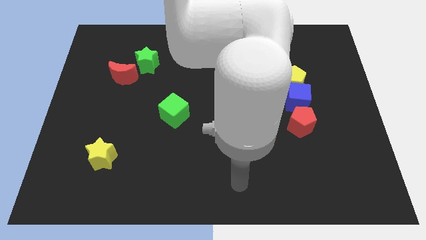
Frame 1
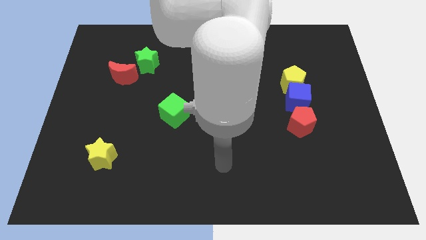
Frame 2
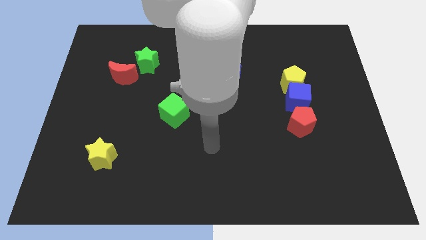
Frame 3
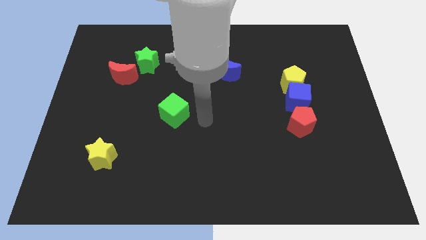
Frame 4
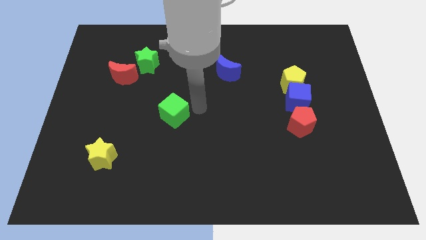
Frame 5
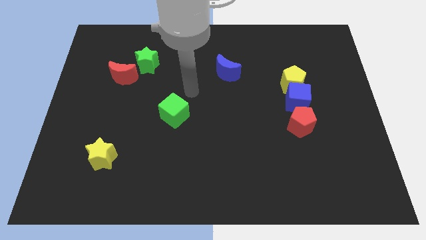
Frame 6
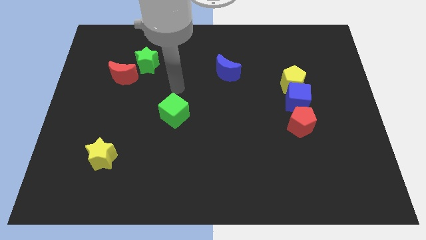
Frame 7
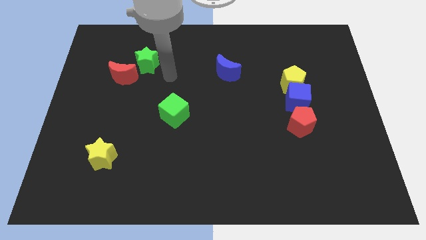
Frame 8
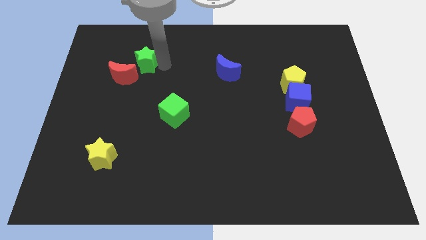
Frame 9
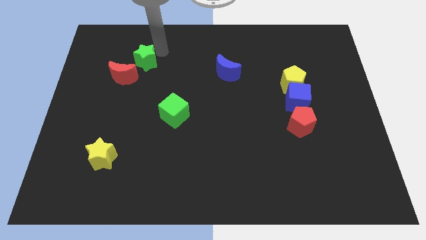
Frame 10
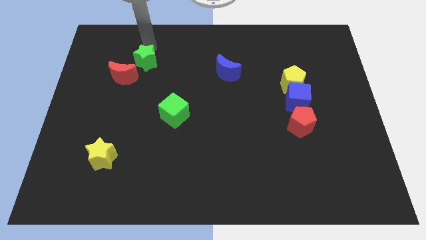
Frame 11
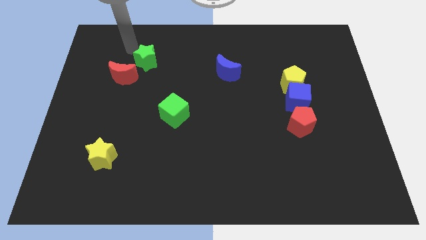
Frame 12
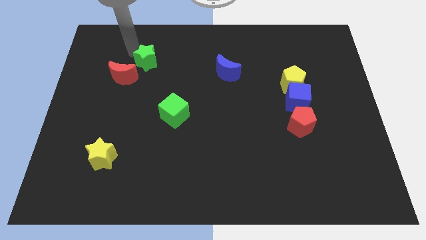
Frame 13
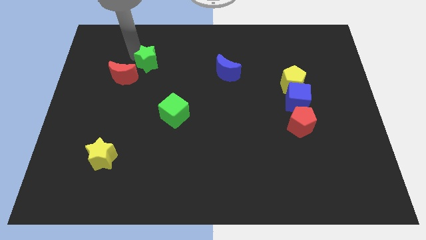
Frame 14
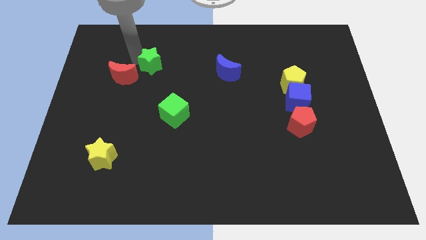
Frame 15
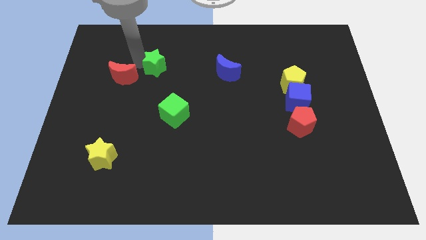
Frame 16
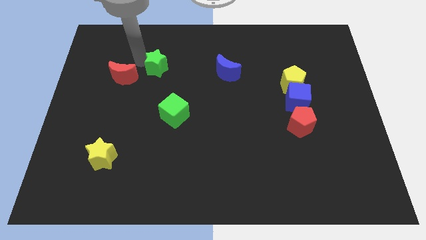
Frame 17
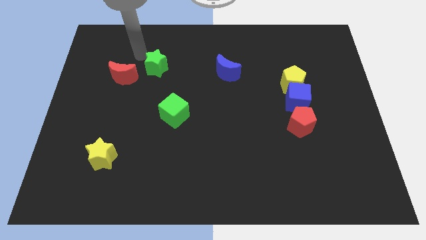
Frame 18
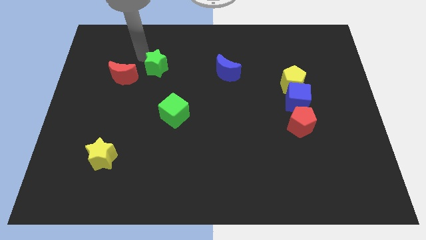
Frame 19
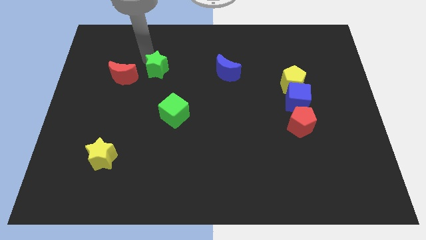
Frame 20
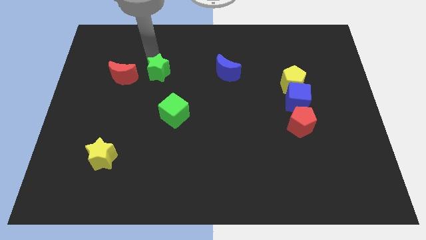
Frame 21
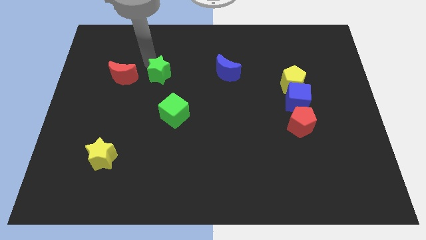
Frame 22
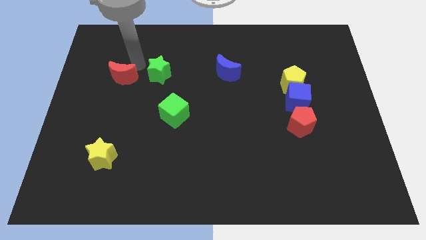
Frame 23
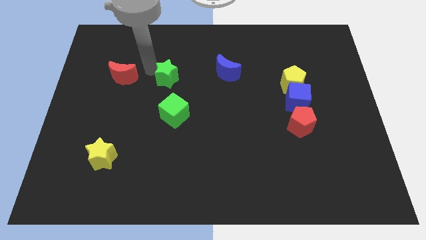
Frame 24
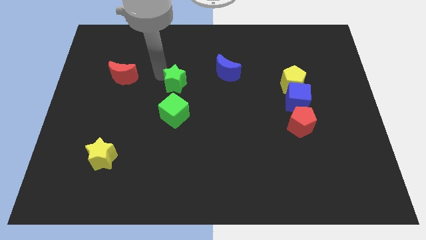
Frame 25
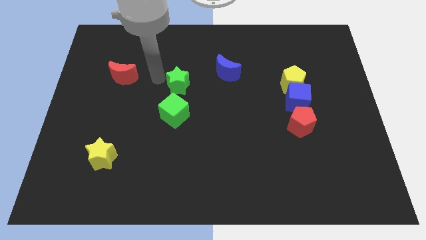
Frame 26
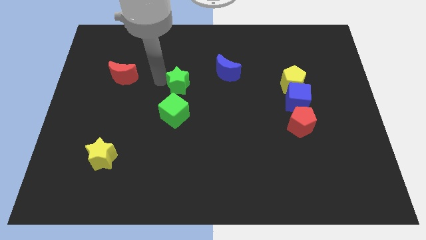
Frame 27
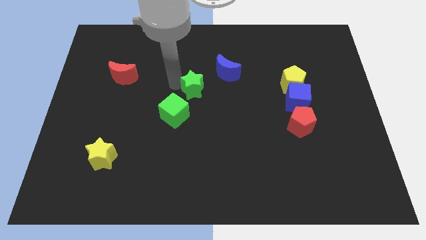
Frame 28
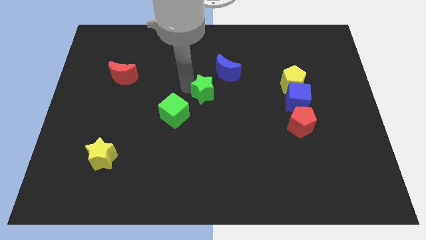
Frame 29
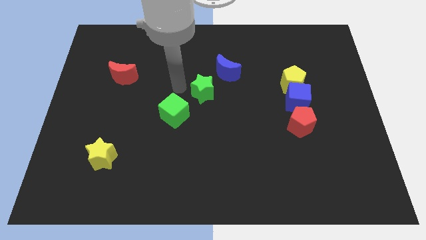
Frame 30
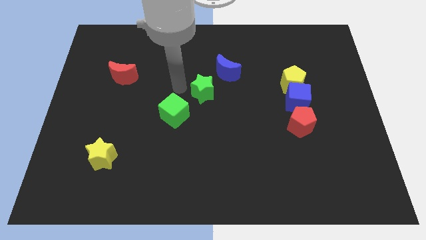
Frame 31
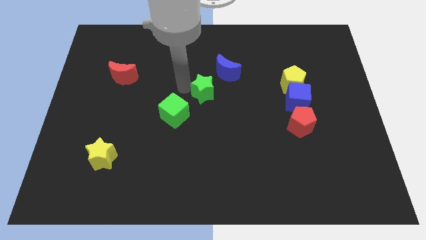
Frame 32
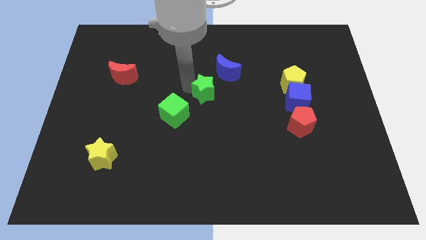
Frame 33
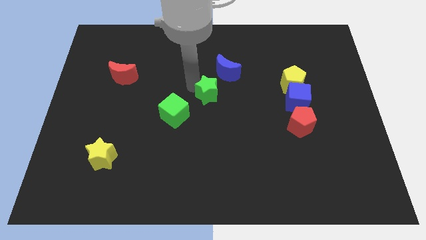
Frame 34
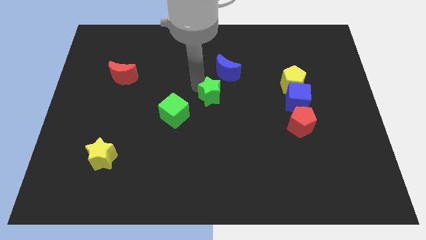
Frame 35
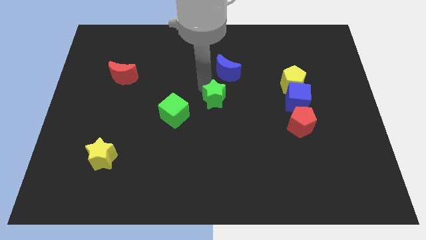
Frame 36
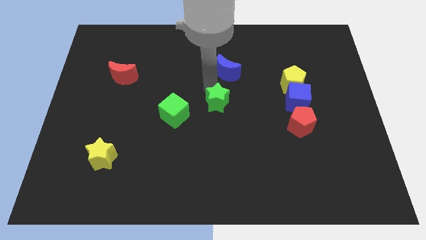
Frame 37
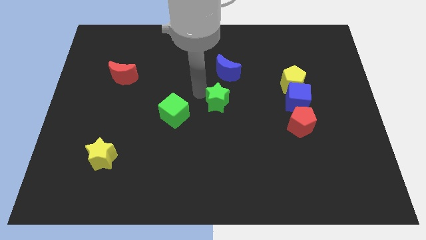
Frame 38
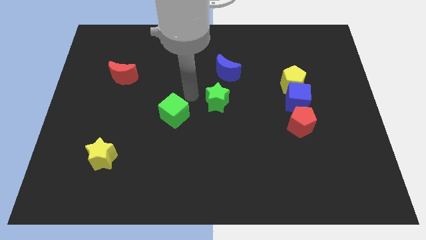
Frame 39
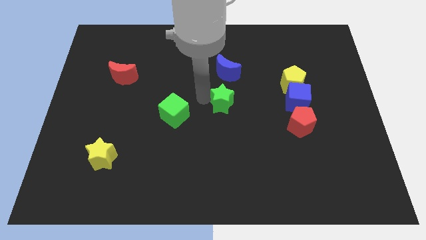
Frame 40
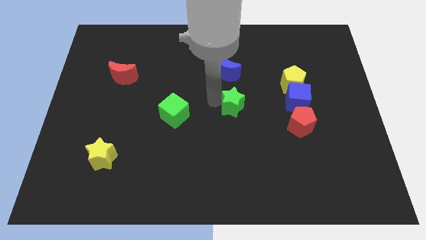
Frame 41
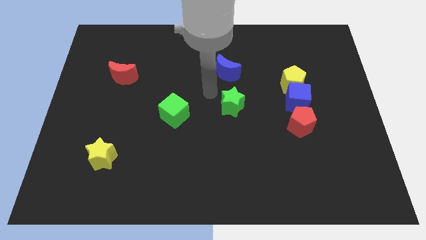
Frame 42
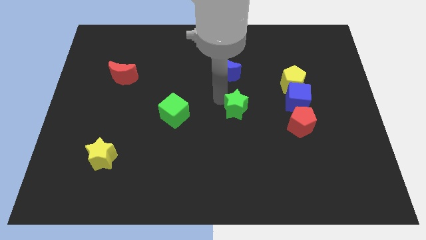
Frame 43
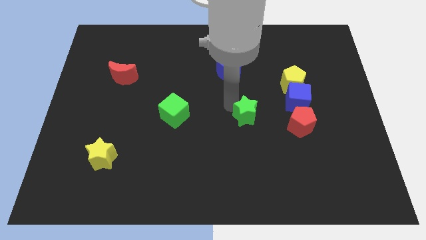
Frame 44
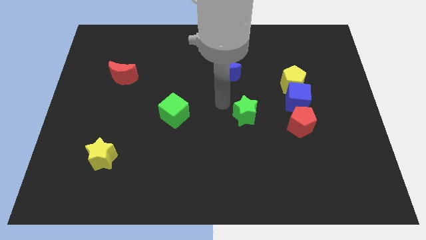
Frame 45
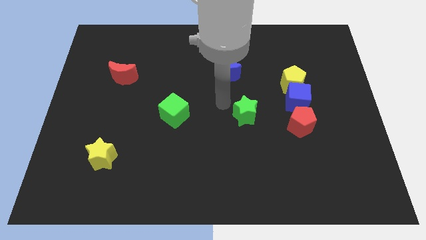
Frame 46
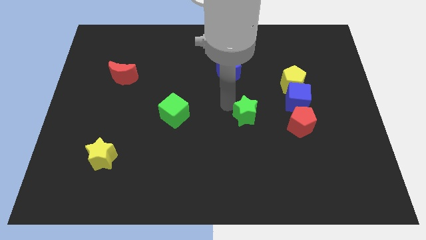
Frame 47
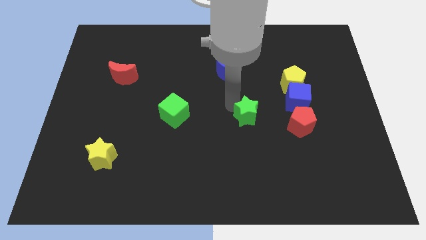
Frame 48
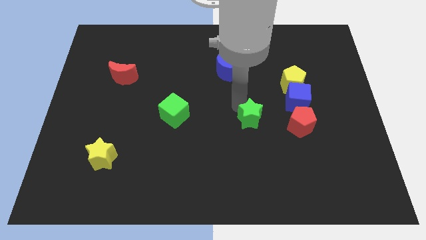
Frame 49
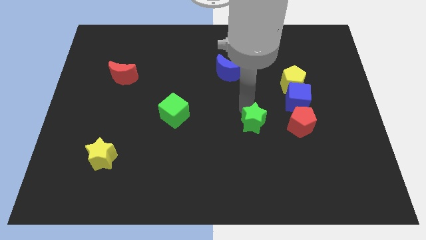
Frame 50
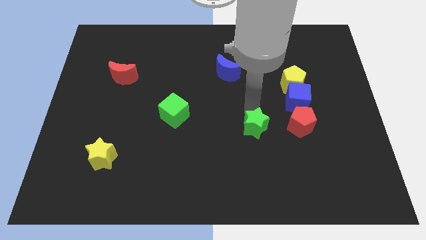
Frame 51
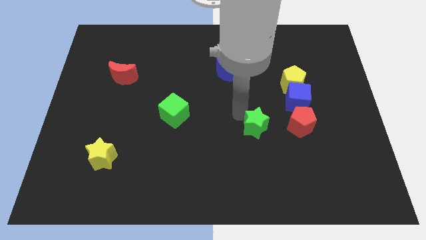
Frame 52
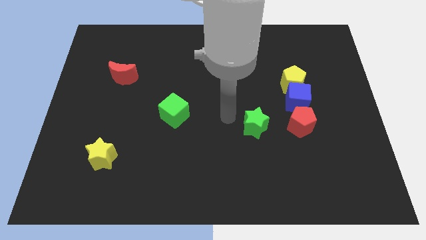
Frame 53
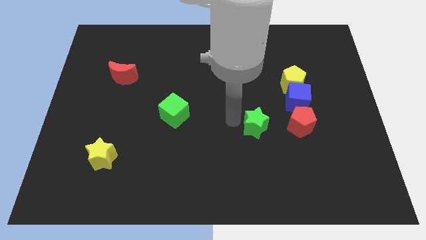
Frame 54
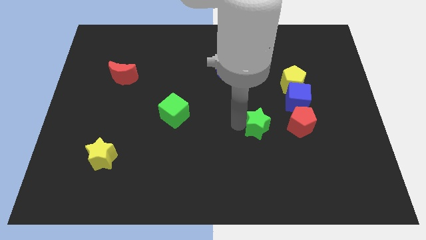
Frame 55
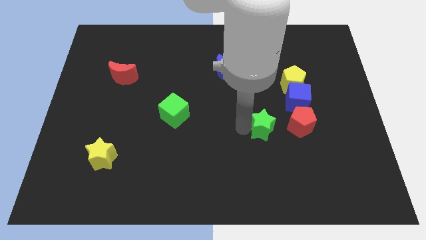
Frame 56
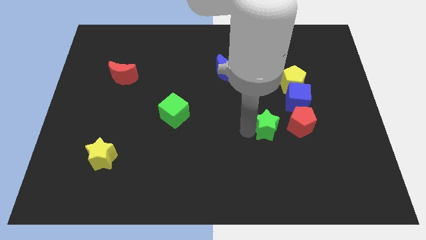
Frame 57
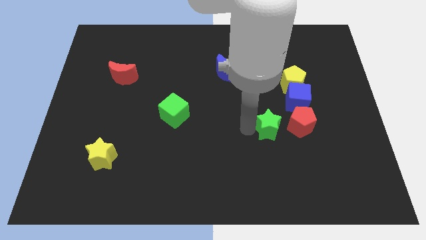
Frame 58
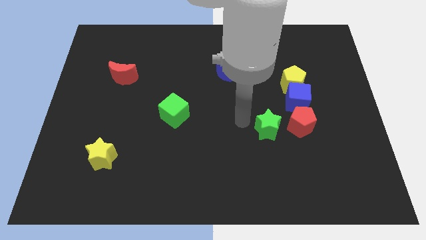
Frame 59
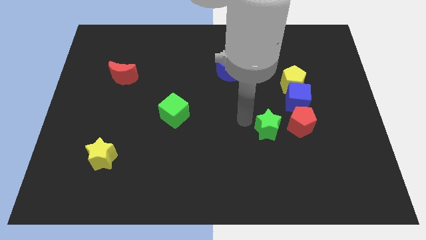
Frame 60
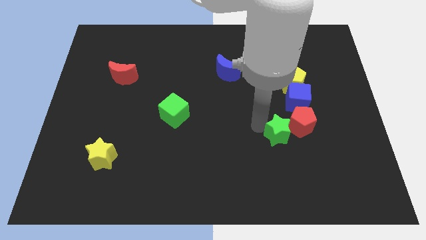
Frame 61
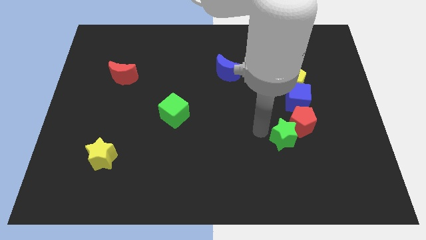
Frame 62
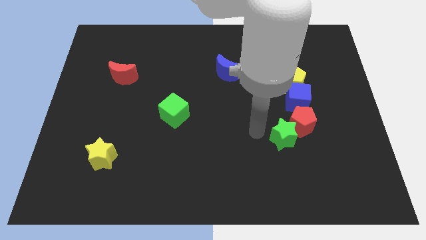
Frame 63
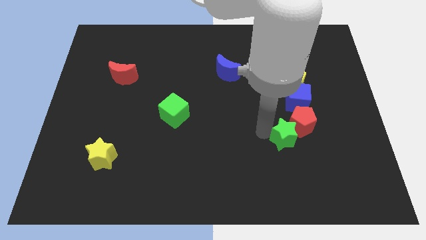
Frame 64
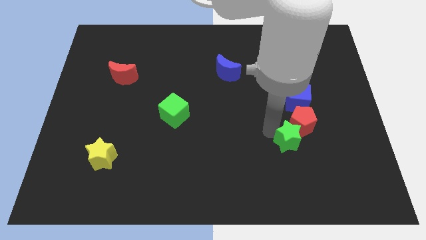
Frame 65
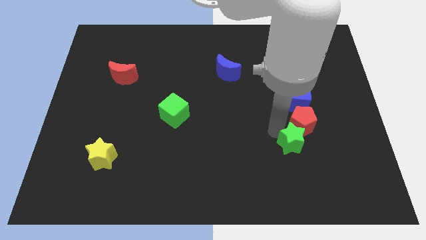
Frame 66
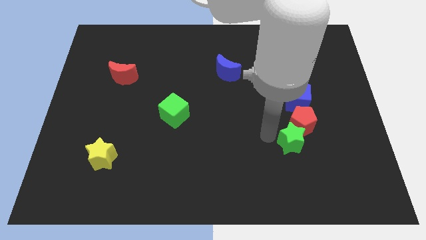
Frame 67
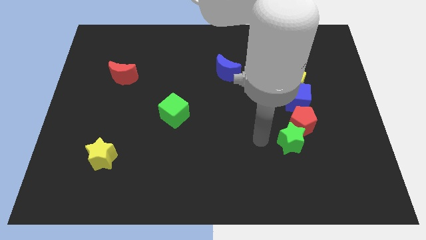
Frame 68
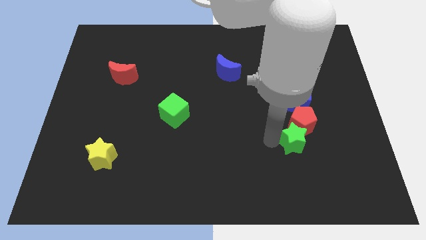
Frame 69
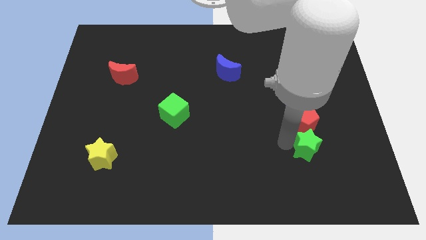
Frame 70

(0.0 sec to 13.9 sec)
slide the green star to the bottom right of the red pentagon
